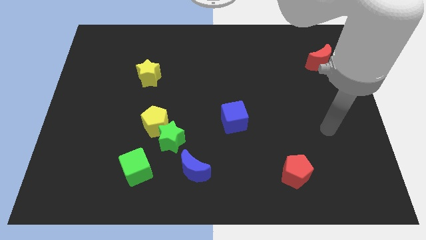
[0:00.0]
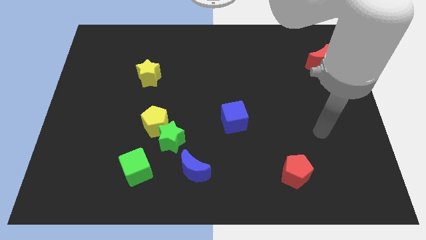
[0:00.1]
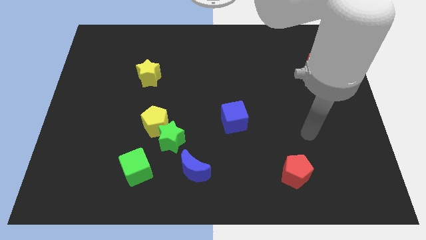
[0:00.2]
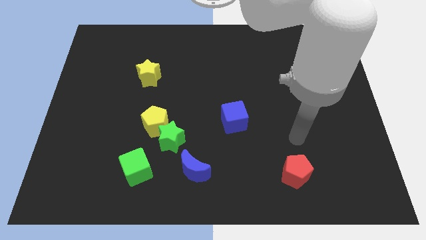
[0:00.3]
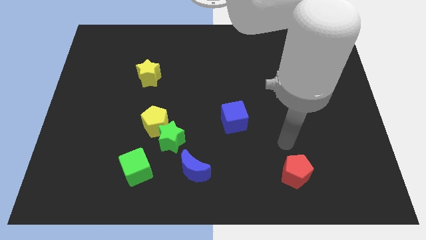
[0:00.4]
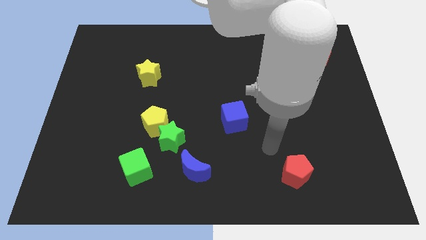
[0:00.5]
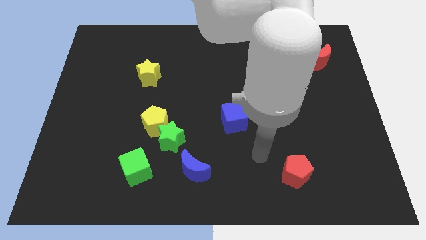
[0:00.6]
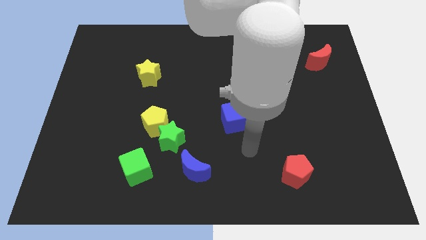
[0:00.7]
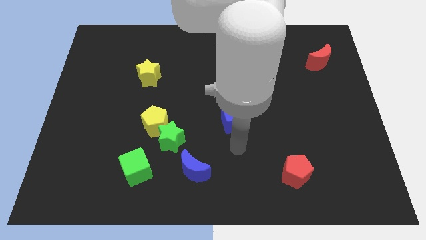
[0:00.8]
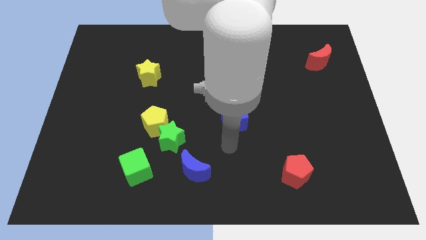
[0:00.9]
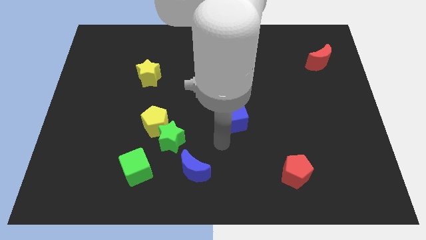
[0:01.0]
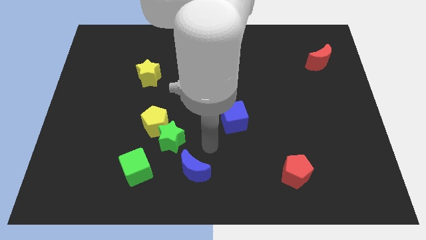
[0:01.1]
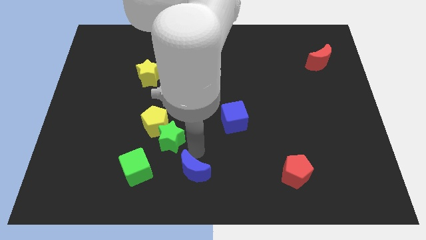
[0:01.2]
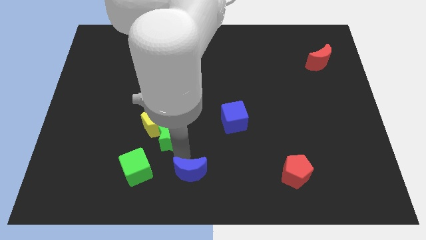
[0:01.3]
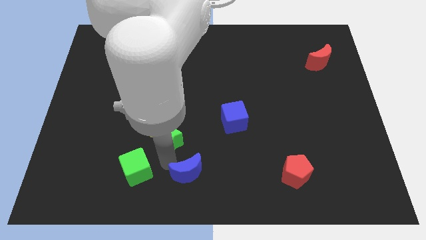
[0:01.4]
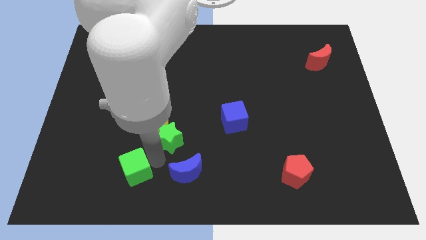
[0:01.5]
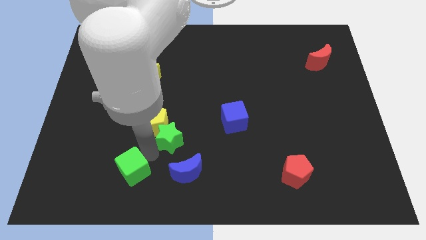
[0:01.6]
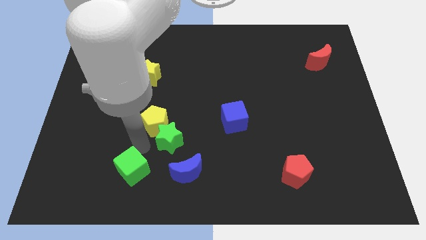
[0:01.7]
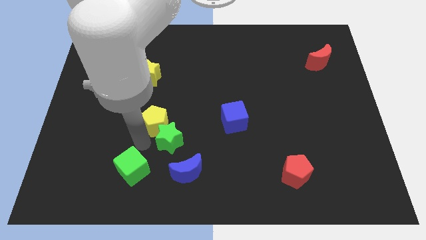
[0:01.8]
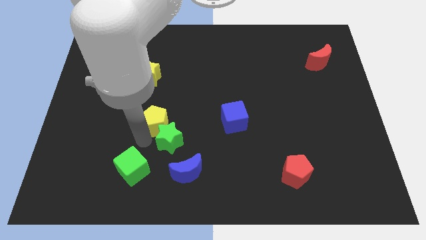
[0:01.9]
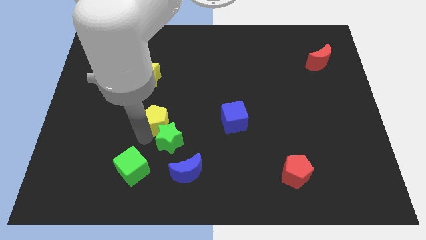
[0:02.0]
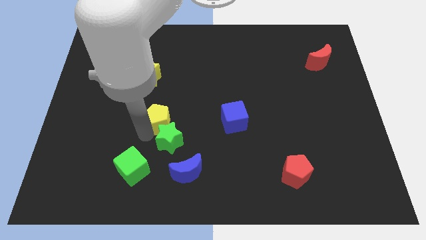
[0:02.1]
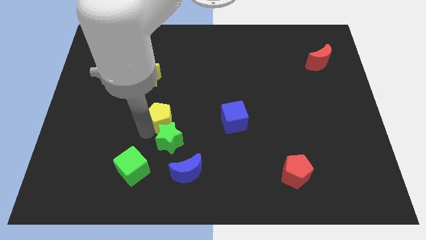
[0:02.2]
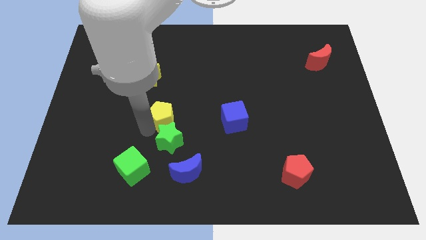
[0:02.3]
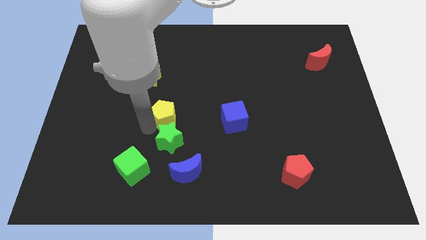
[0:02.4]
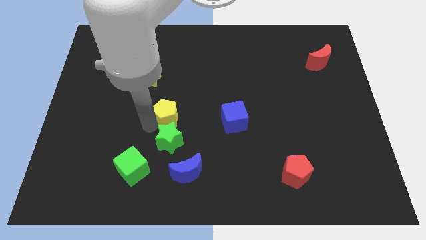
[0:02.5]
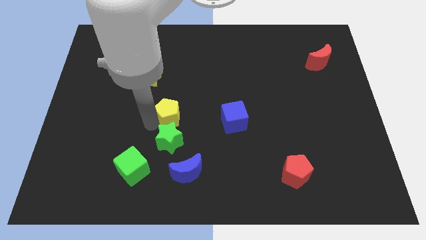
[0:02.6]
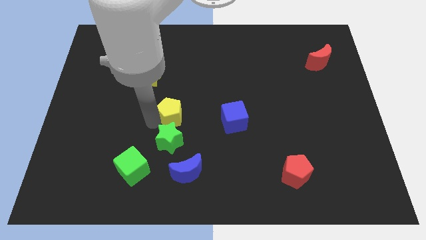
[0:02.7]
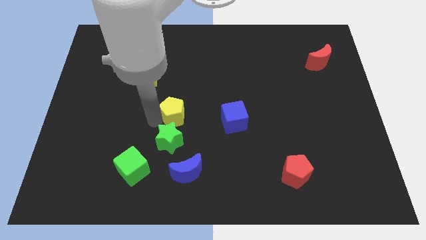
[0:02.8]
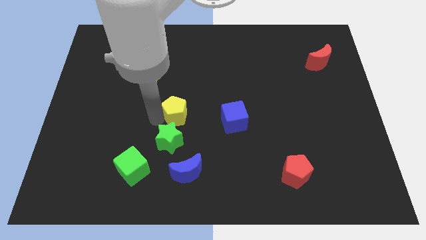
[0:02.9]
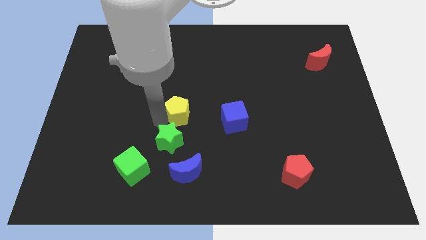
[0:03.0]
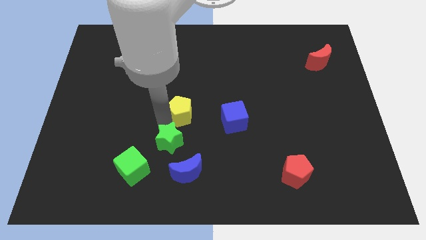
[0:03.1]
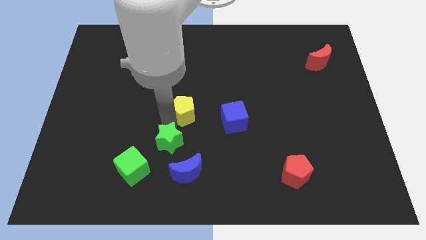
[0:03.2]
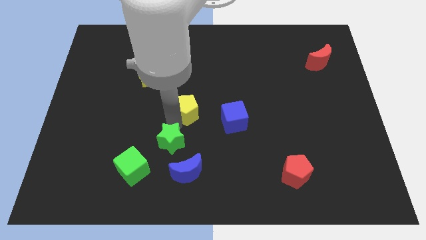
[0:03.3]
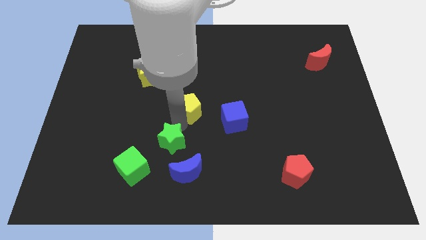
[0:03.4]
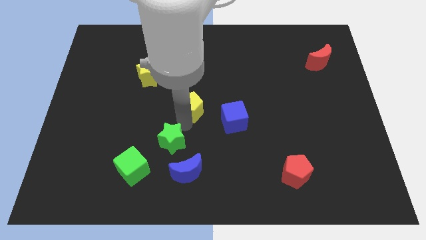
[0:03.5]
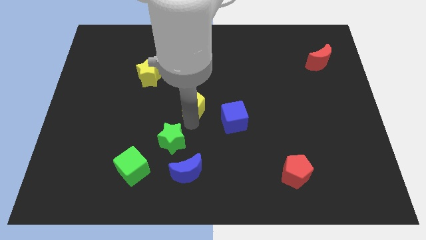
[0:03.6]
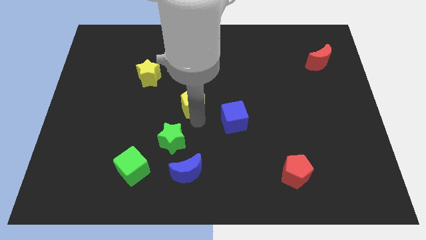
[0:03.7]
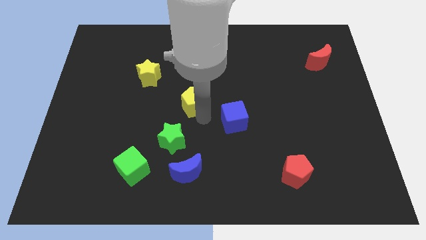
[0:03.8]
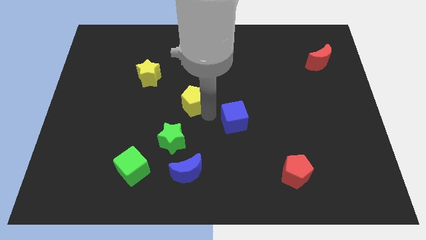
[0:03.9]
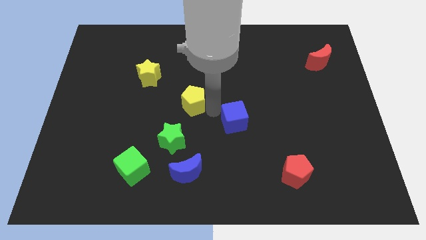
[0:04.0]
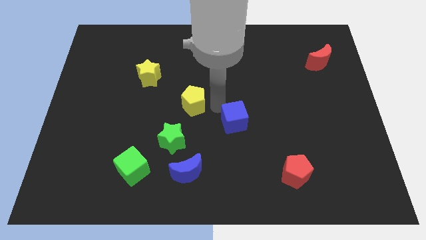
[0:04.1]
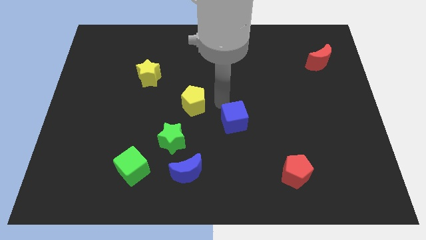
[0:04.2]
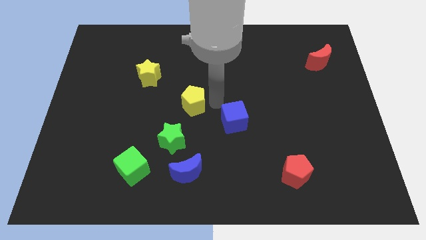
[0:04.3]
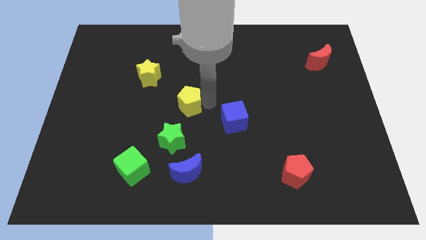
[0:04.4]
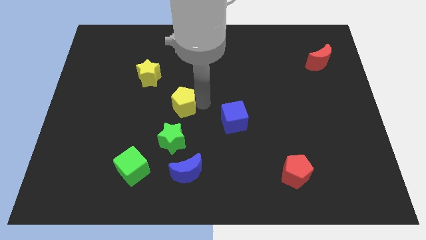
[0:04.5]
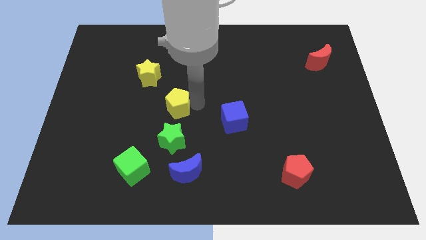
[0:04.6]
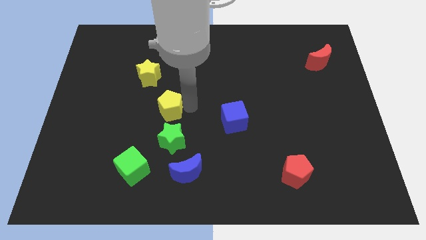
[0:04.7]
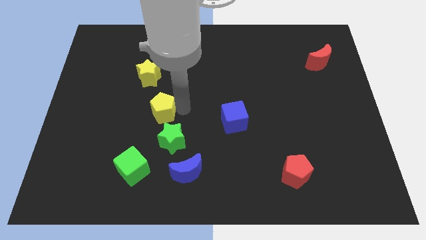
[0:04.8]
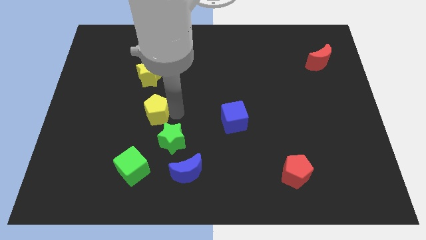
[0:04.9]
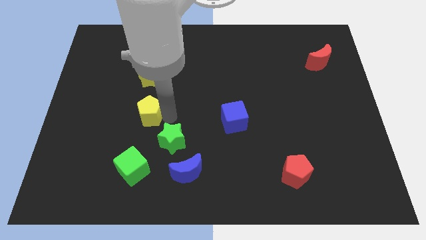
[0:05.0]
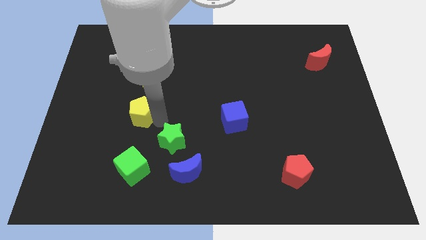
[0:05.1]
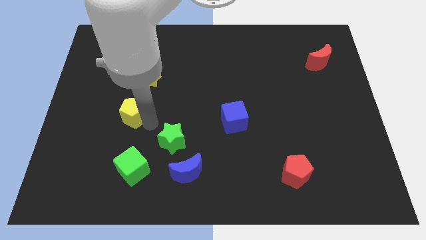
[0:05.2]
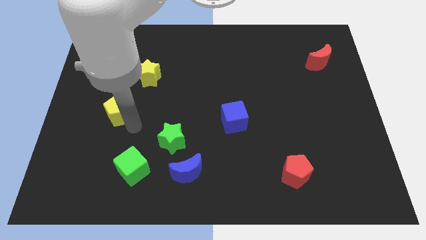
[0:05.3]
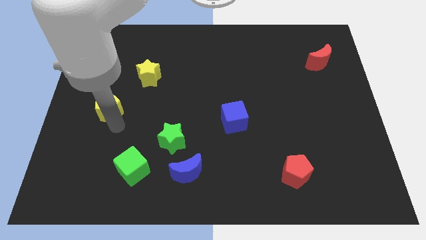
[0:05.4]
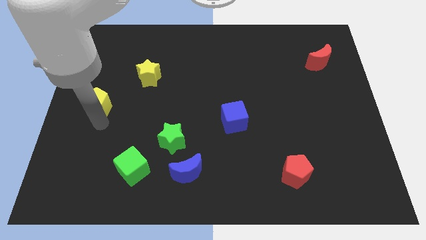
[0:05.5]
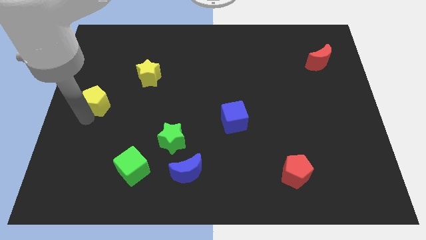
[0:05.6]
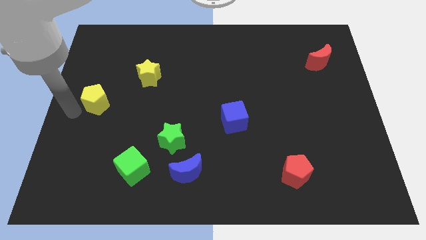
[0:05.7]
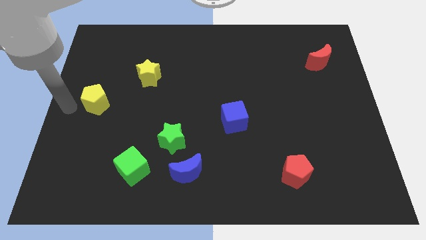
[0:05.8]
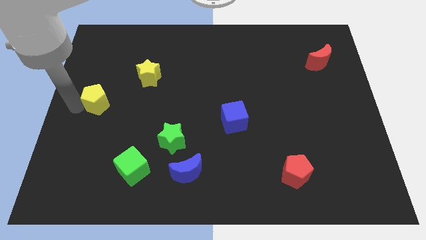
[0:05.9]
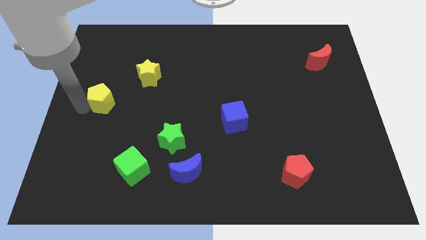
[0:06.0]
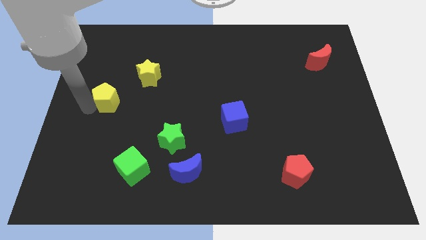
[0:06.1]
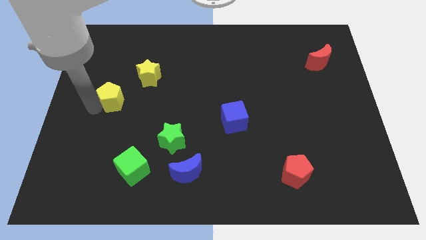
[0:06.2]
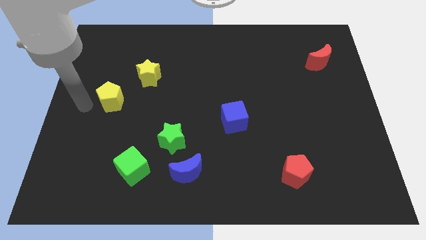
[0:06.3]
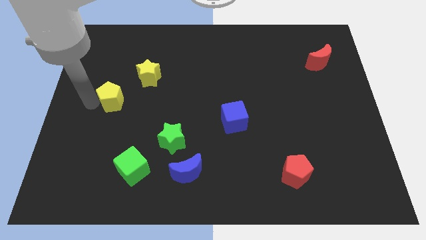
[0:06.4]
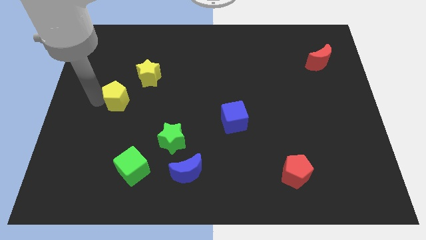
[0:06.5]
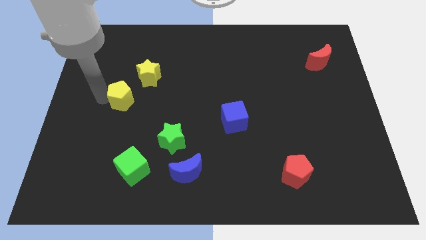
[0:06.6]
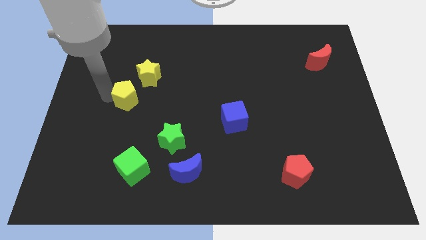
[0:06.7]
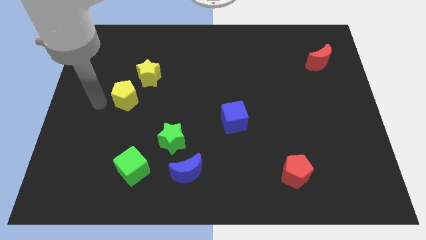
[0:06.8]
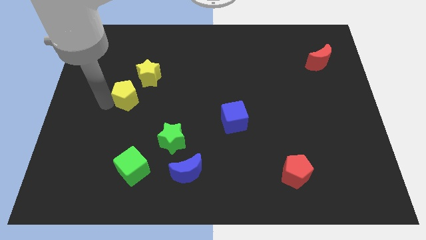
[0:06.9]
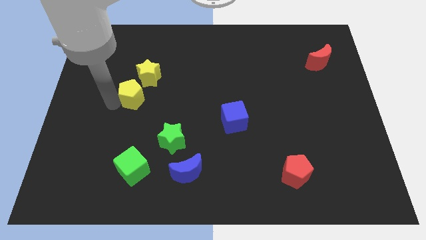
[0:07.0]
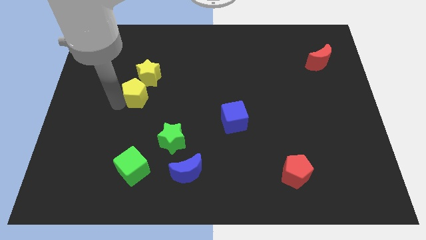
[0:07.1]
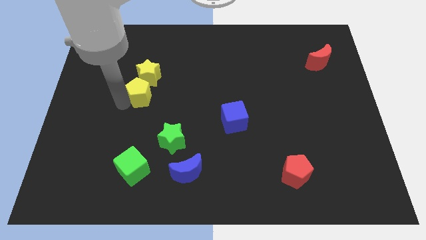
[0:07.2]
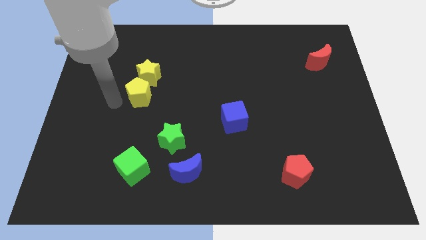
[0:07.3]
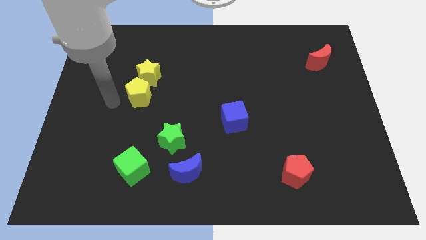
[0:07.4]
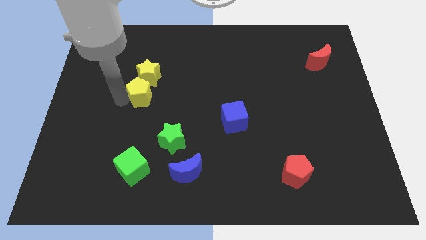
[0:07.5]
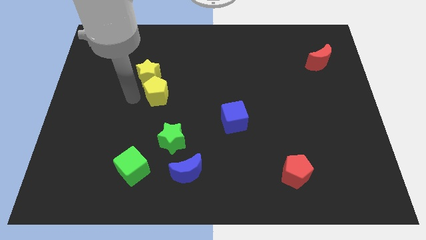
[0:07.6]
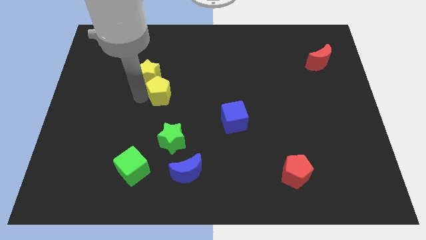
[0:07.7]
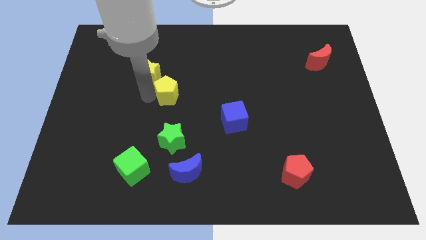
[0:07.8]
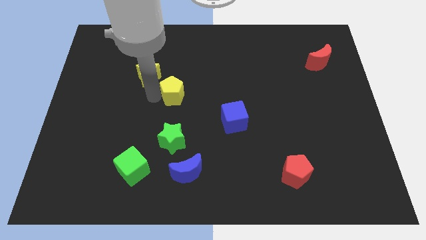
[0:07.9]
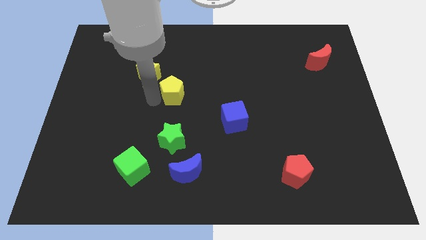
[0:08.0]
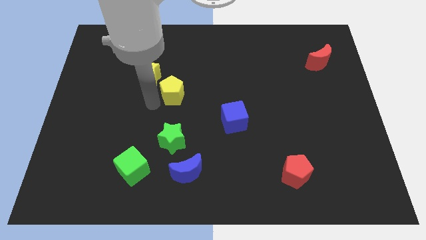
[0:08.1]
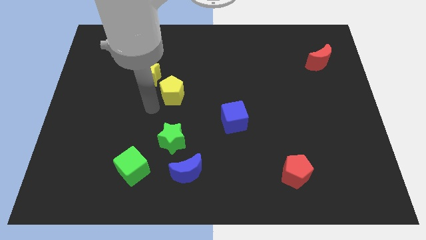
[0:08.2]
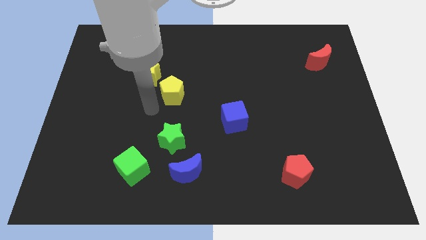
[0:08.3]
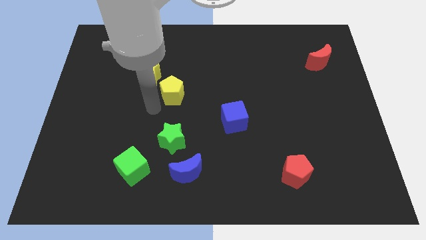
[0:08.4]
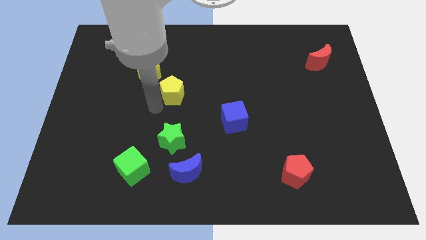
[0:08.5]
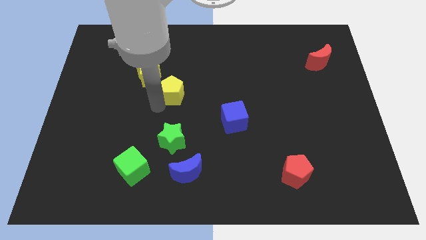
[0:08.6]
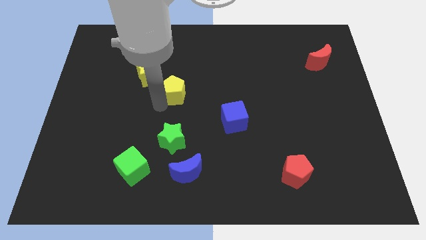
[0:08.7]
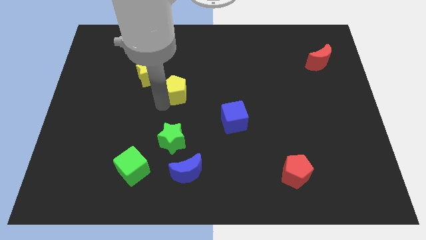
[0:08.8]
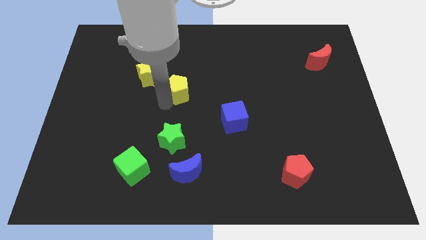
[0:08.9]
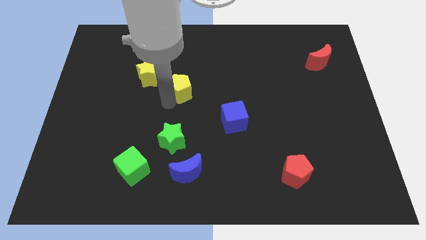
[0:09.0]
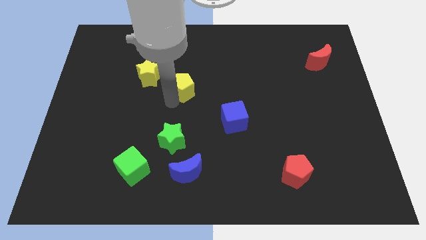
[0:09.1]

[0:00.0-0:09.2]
put the yellow pentagon just right of the yellow star
